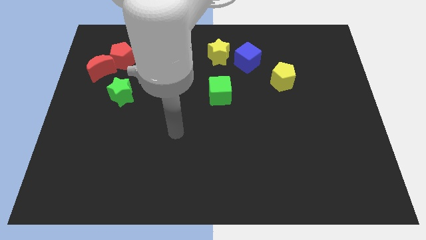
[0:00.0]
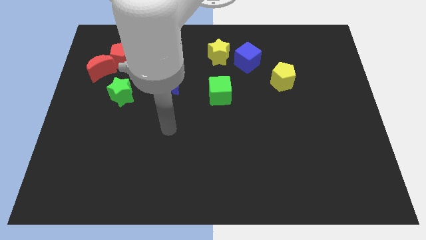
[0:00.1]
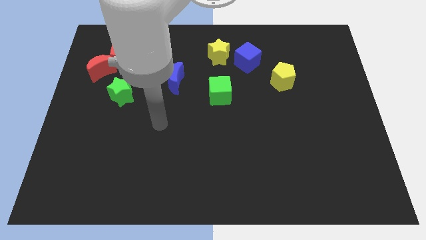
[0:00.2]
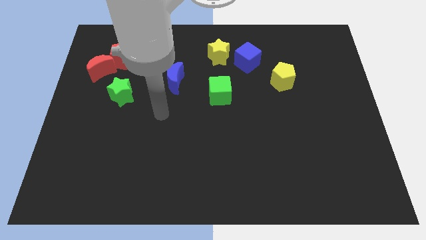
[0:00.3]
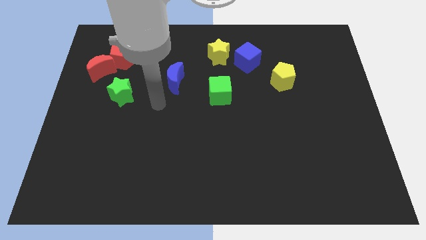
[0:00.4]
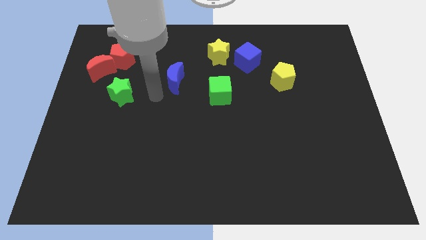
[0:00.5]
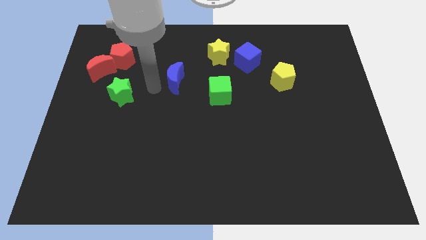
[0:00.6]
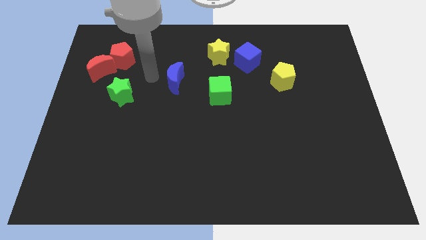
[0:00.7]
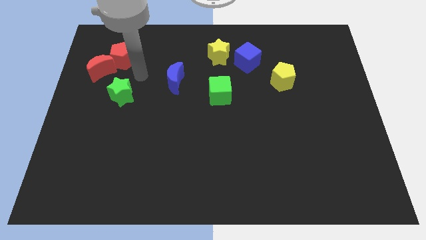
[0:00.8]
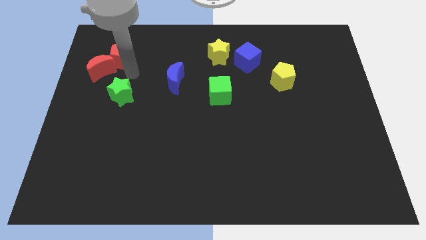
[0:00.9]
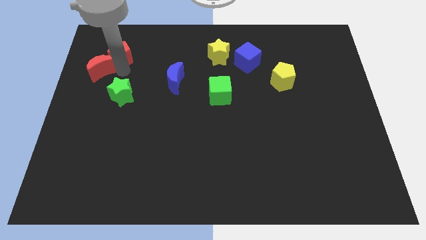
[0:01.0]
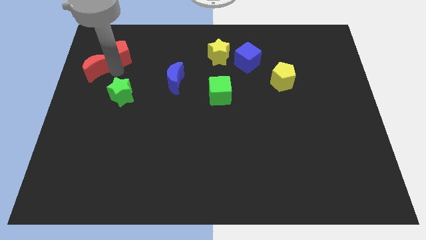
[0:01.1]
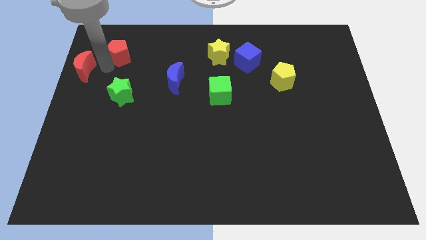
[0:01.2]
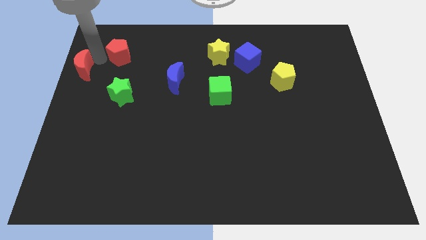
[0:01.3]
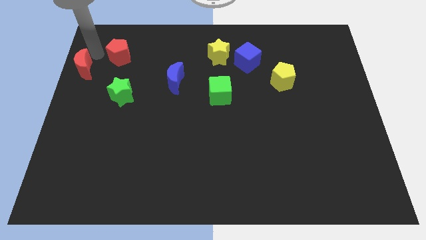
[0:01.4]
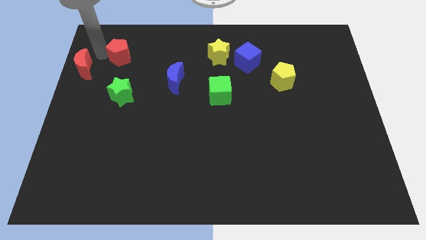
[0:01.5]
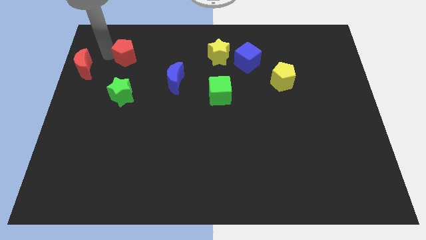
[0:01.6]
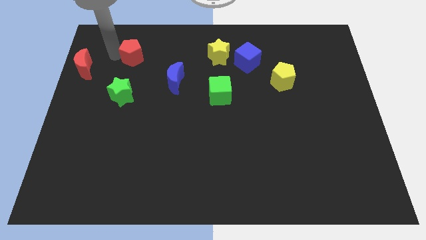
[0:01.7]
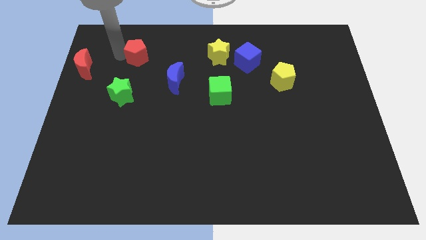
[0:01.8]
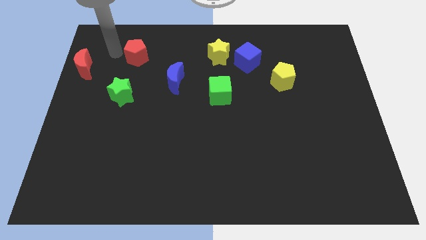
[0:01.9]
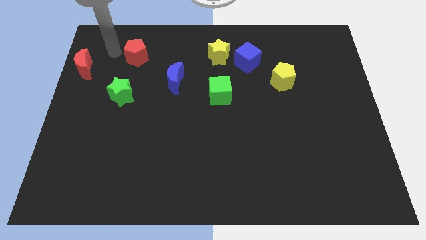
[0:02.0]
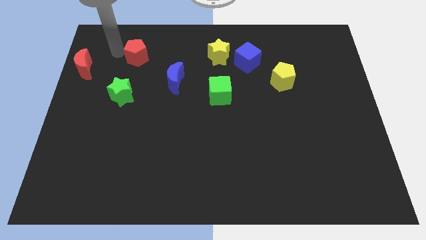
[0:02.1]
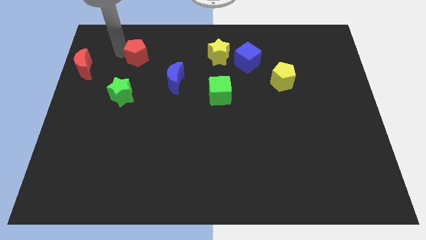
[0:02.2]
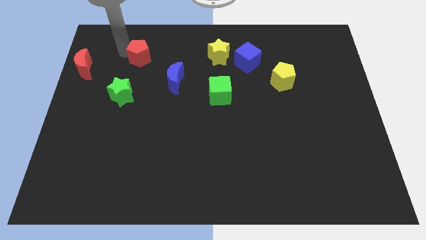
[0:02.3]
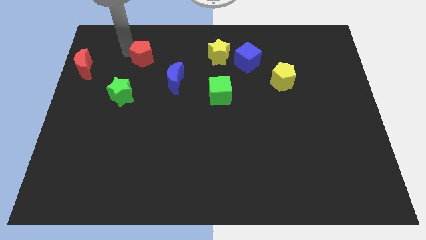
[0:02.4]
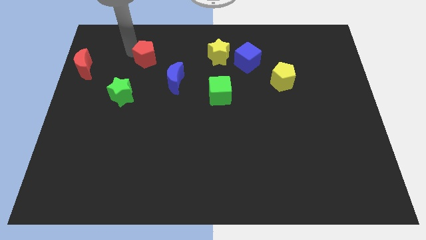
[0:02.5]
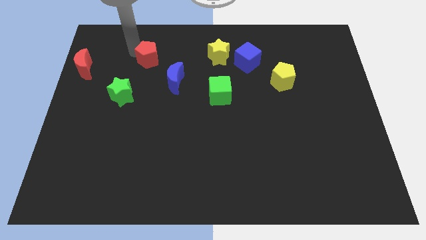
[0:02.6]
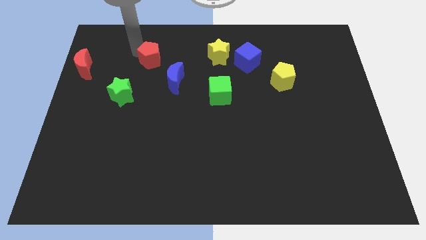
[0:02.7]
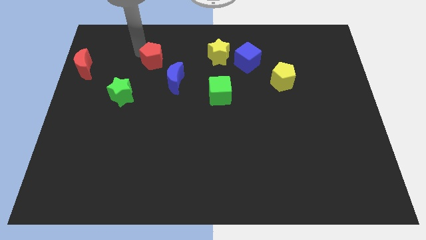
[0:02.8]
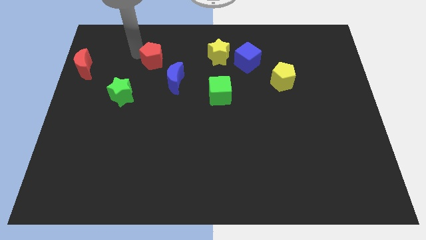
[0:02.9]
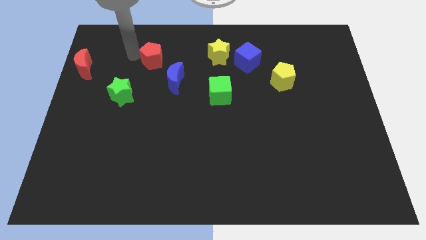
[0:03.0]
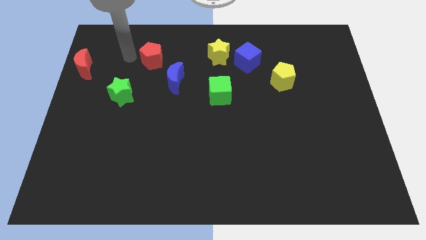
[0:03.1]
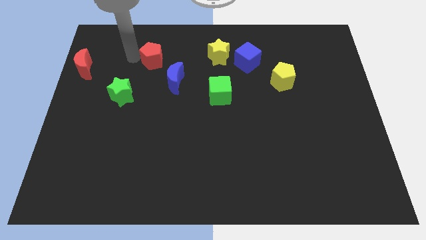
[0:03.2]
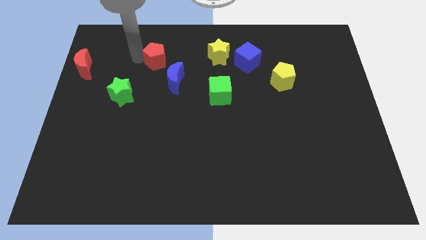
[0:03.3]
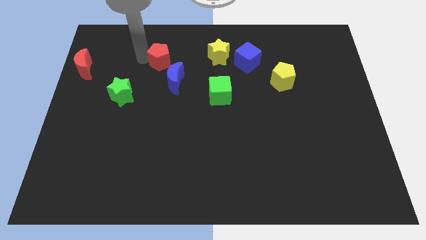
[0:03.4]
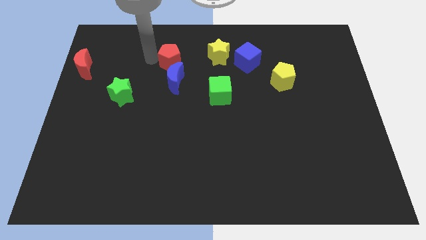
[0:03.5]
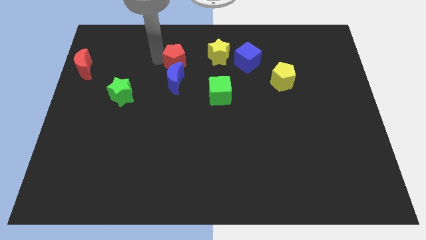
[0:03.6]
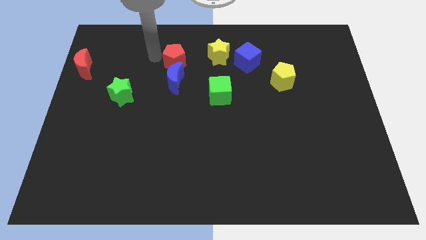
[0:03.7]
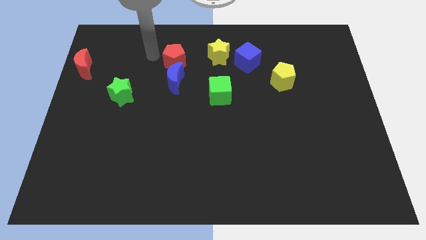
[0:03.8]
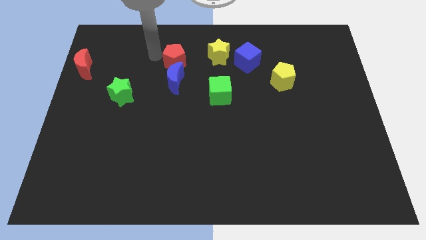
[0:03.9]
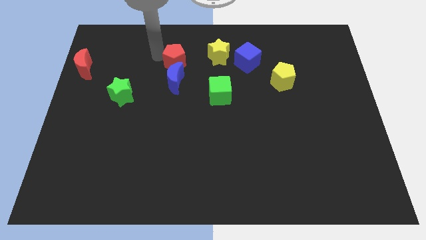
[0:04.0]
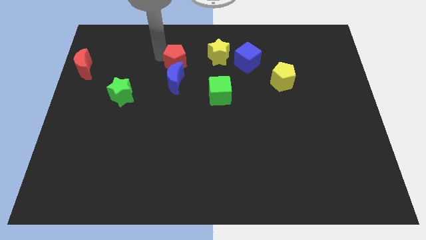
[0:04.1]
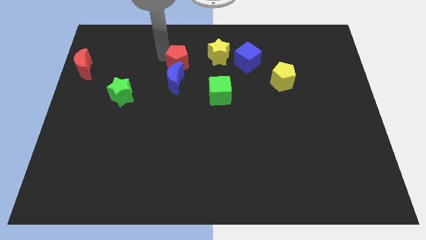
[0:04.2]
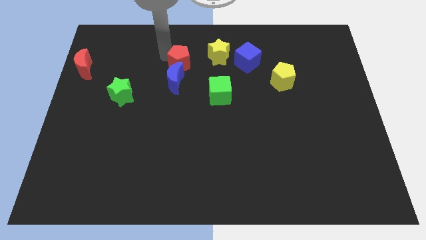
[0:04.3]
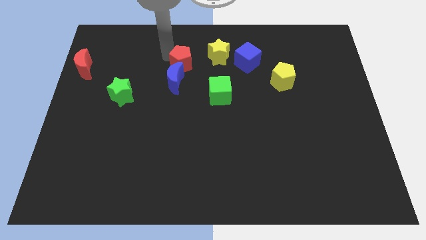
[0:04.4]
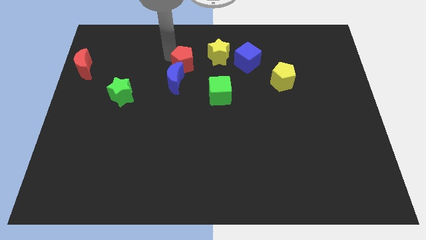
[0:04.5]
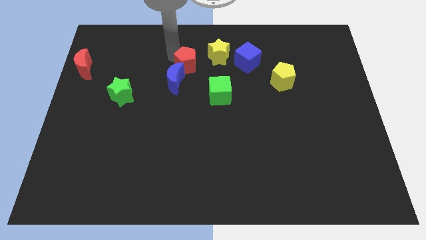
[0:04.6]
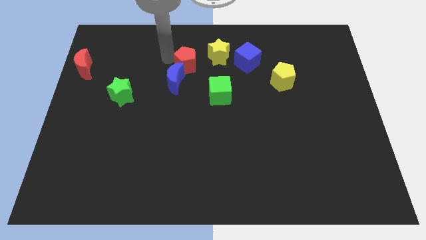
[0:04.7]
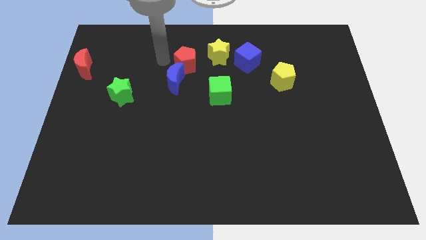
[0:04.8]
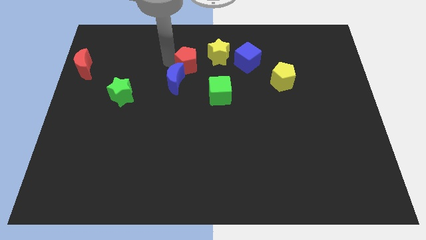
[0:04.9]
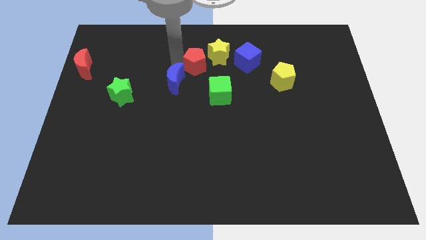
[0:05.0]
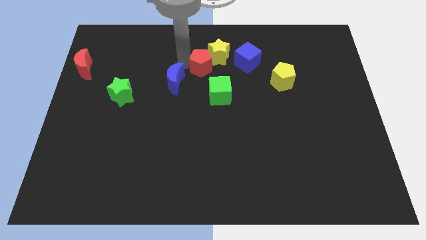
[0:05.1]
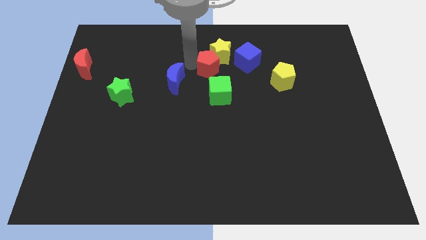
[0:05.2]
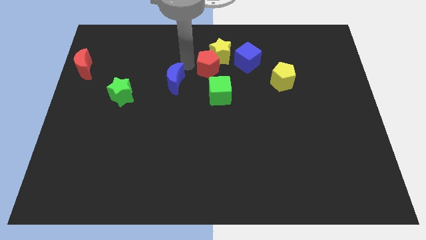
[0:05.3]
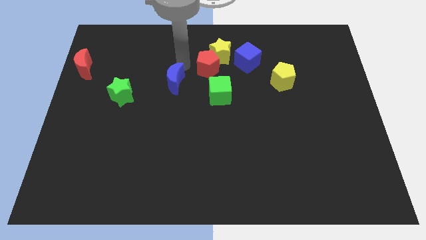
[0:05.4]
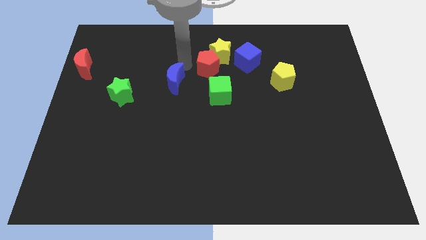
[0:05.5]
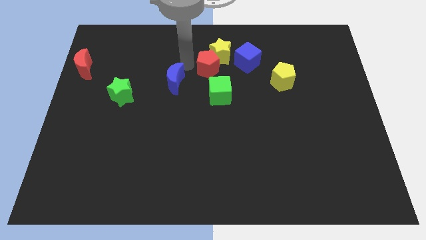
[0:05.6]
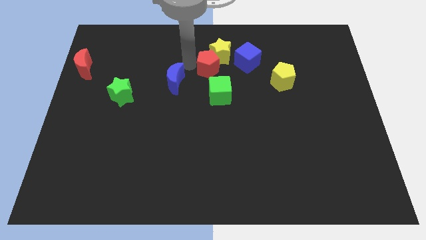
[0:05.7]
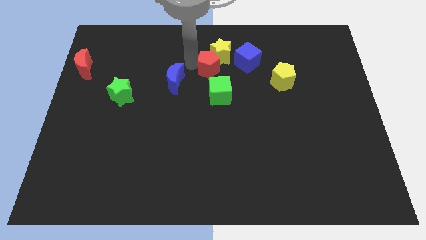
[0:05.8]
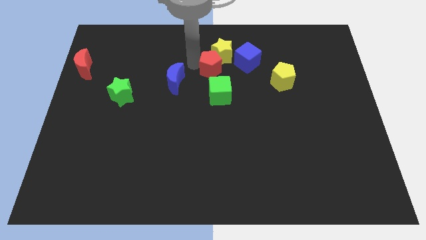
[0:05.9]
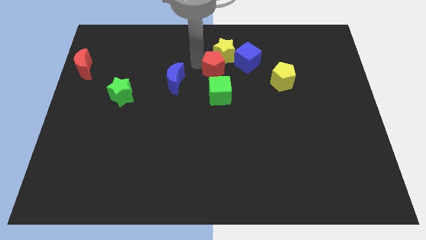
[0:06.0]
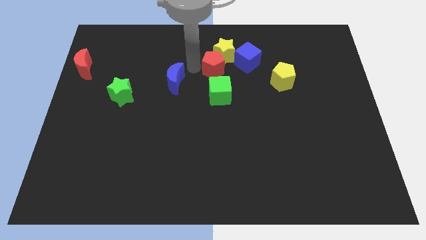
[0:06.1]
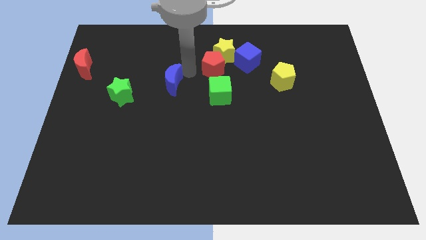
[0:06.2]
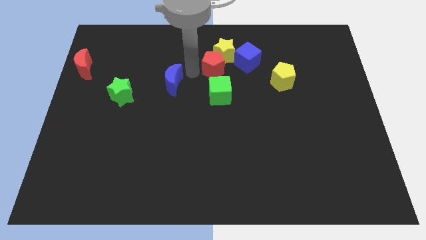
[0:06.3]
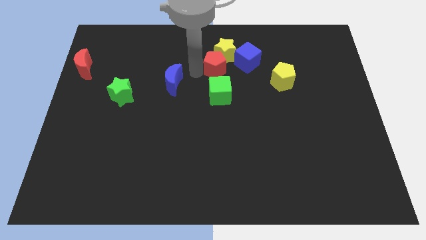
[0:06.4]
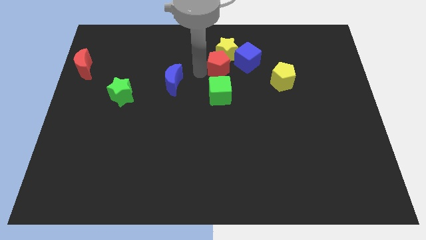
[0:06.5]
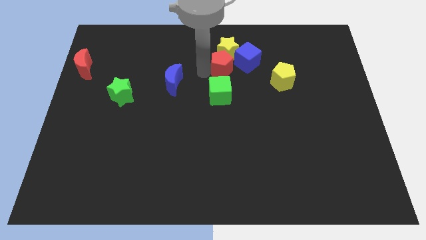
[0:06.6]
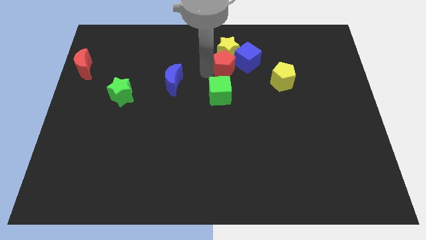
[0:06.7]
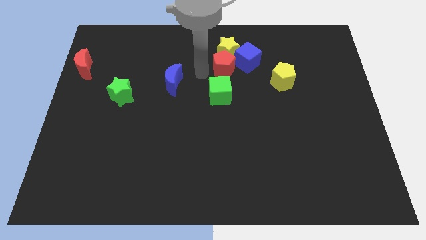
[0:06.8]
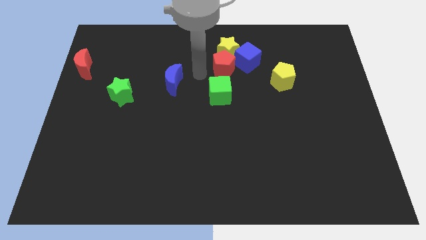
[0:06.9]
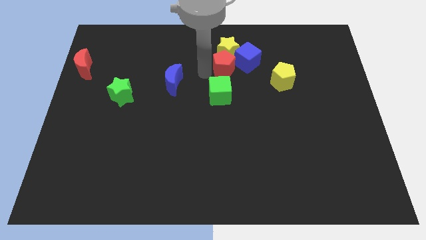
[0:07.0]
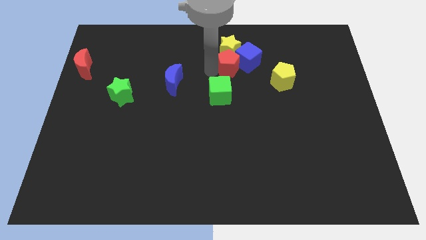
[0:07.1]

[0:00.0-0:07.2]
move the red pentagon to the blue cube
